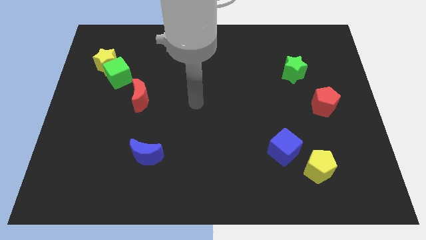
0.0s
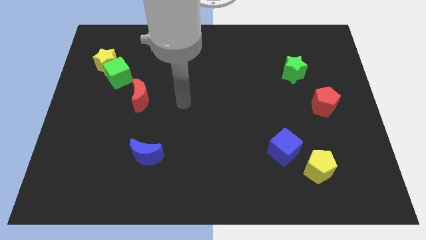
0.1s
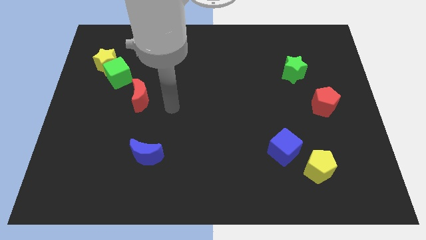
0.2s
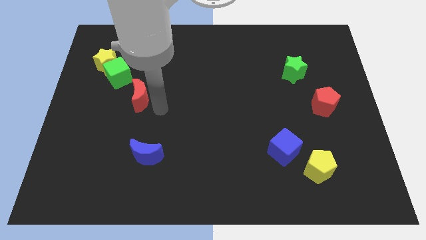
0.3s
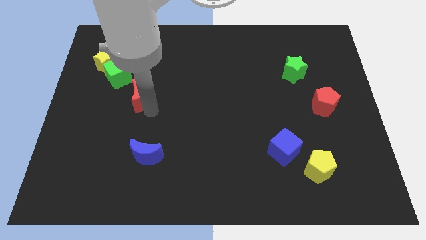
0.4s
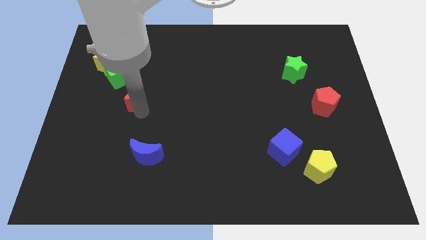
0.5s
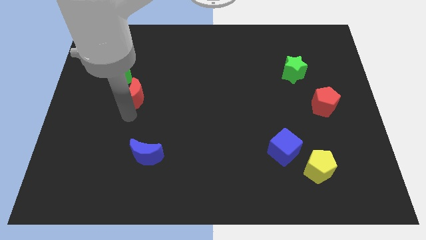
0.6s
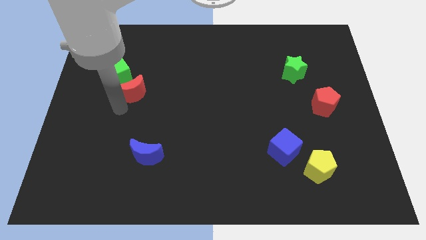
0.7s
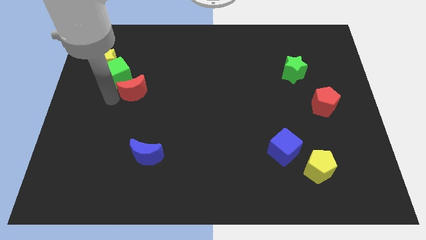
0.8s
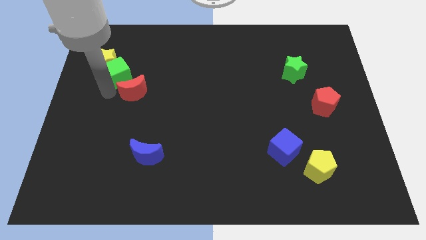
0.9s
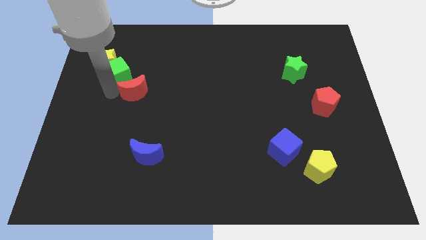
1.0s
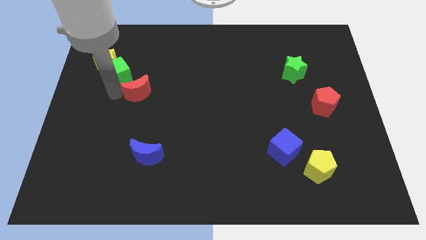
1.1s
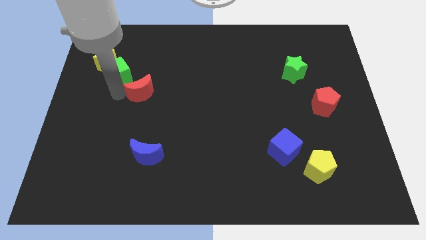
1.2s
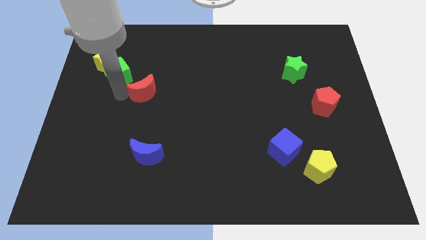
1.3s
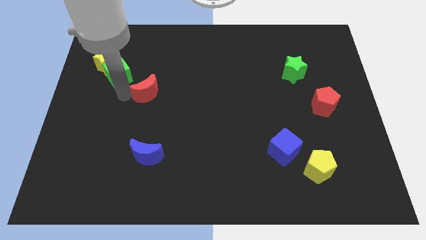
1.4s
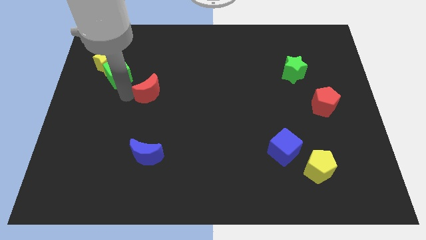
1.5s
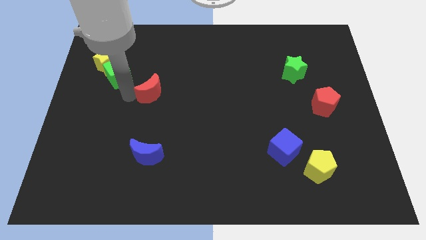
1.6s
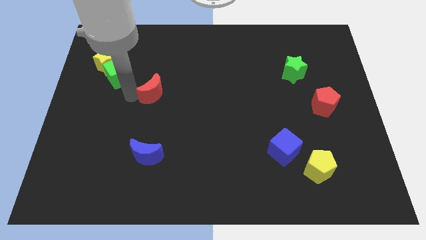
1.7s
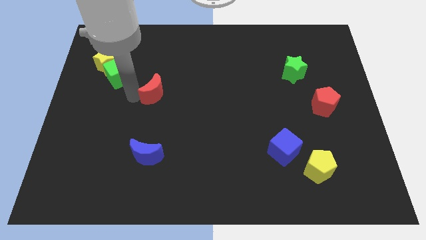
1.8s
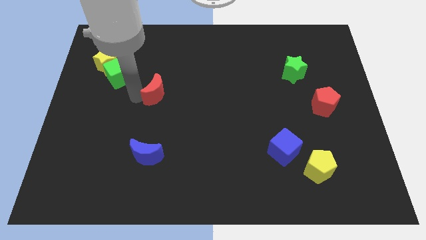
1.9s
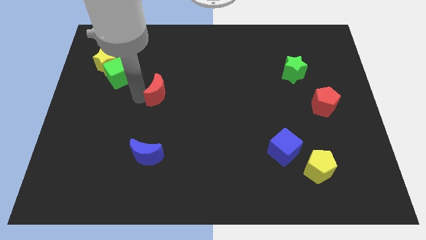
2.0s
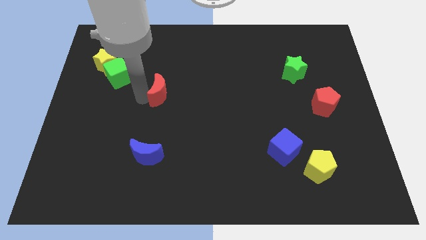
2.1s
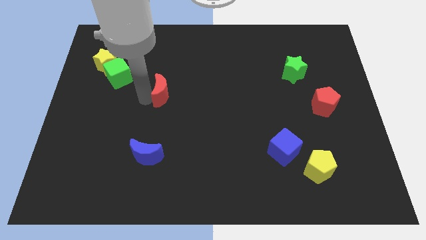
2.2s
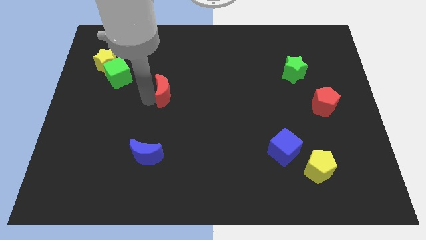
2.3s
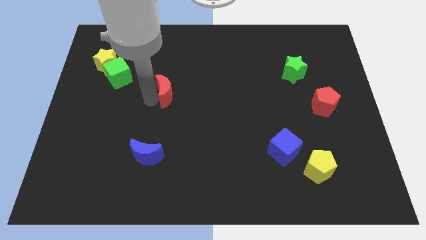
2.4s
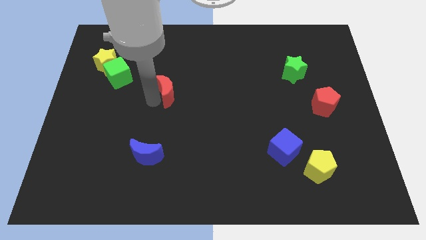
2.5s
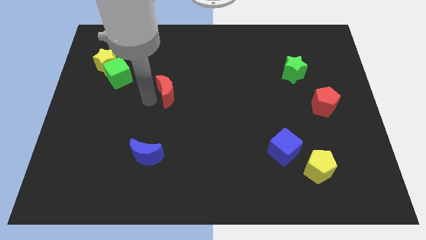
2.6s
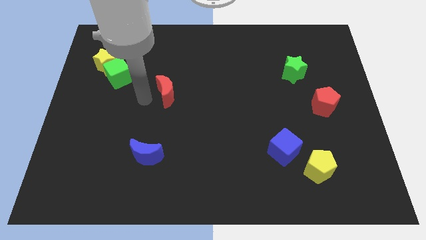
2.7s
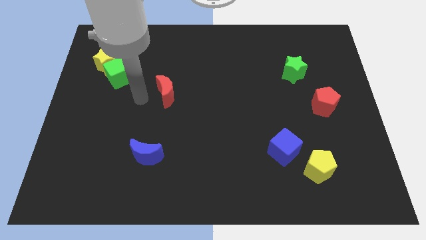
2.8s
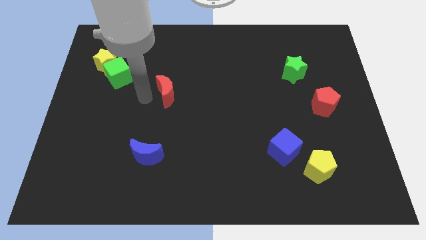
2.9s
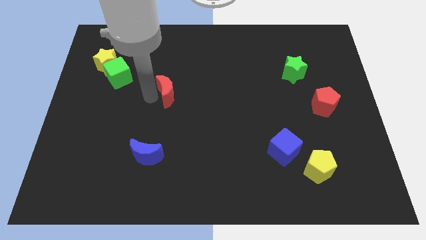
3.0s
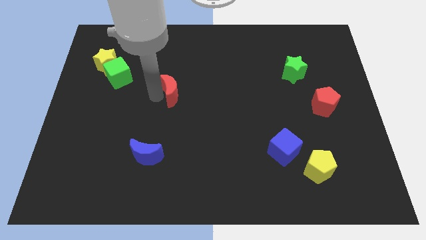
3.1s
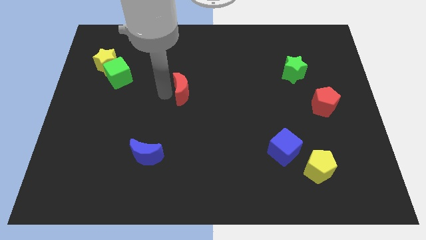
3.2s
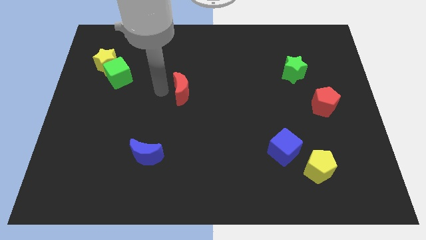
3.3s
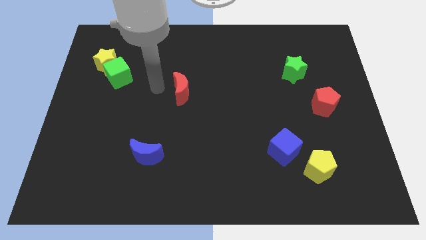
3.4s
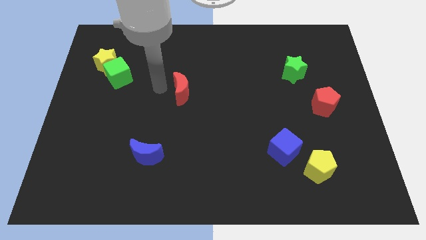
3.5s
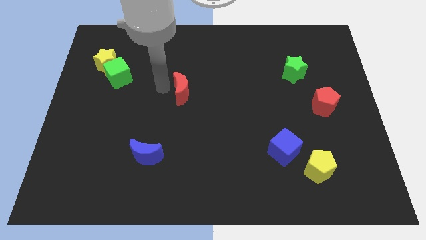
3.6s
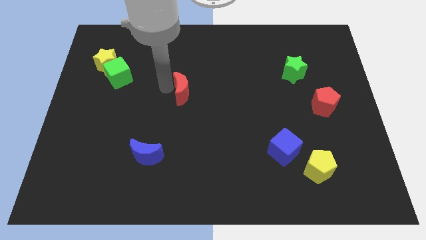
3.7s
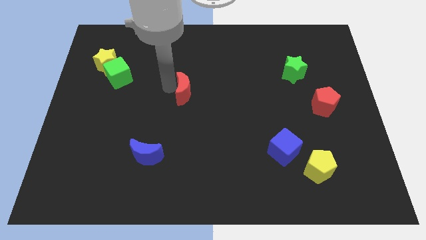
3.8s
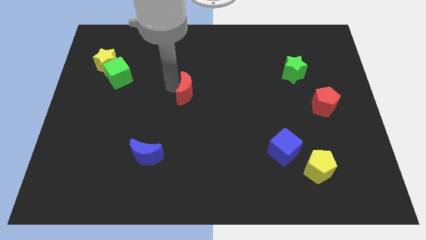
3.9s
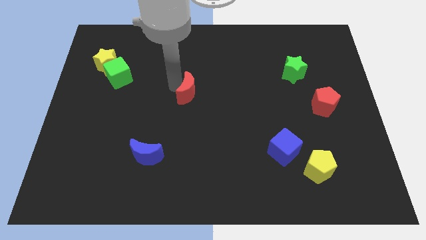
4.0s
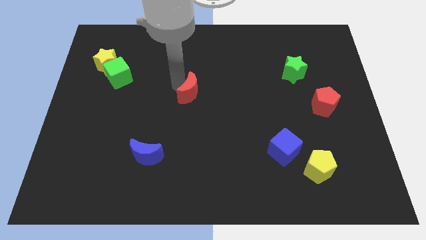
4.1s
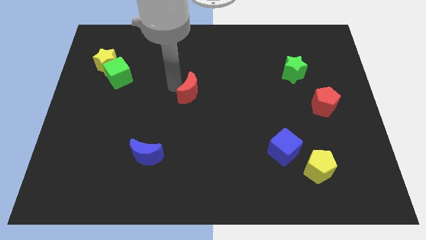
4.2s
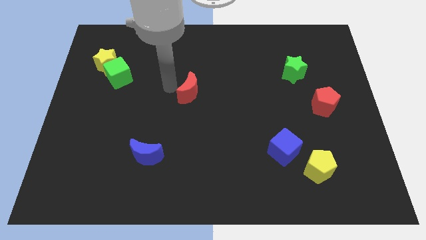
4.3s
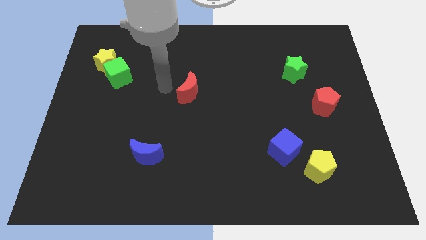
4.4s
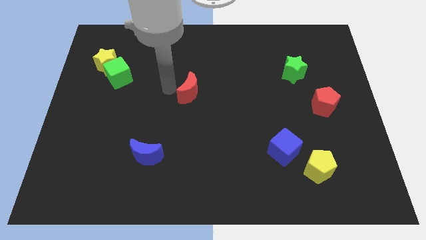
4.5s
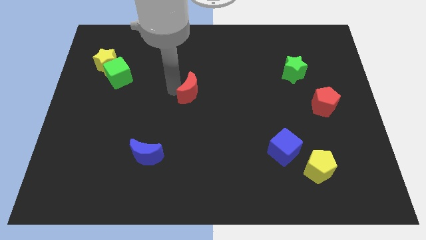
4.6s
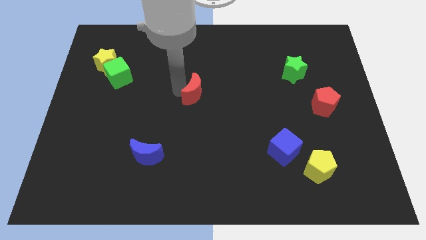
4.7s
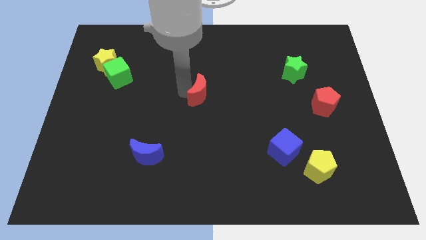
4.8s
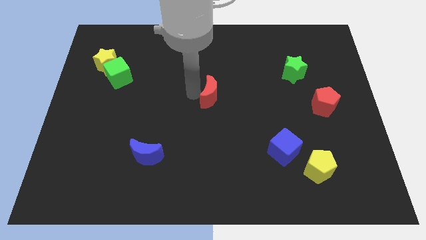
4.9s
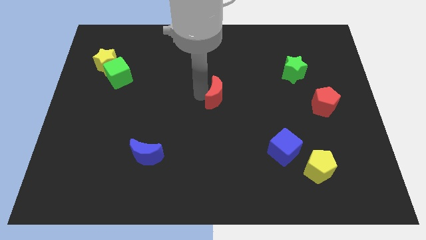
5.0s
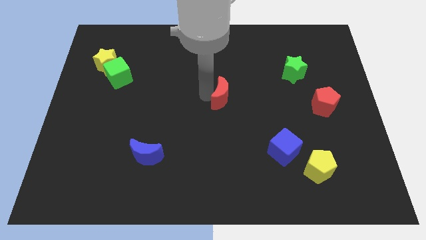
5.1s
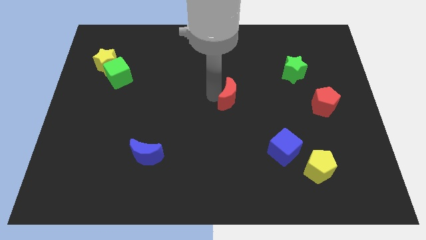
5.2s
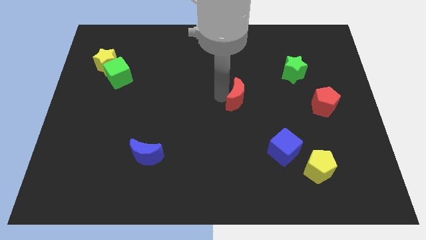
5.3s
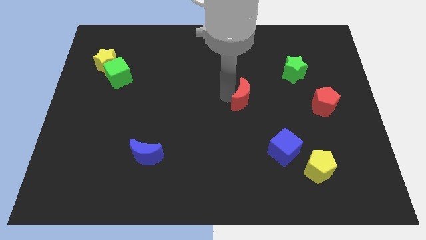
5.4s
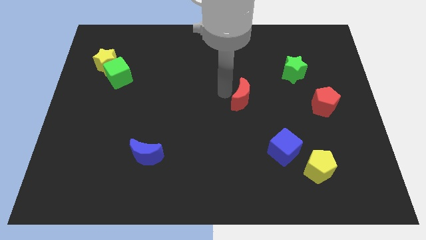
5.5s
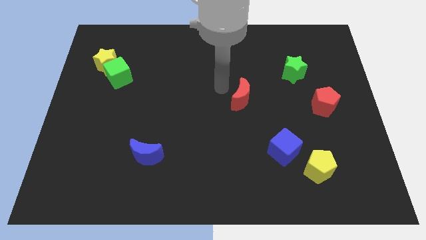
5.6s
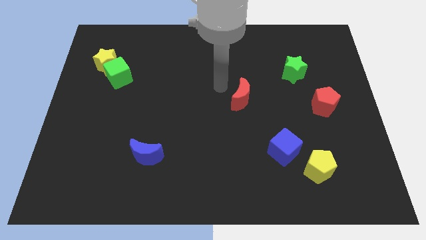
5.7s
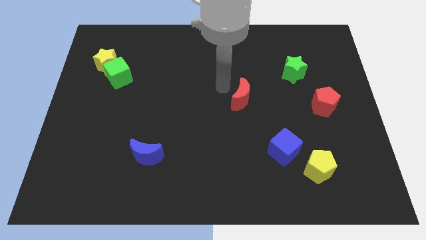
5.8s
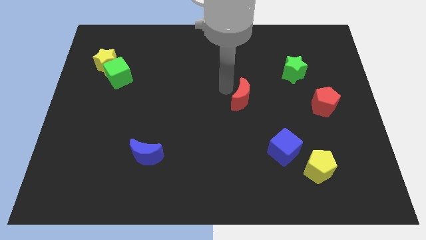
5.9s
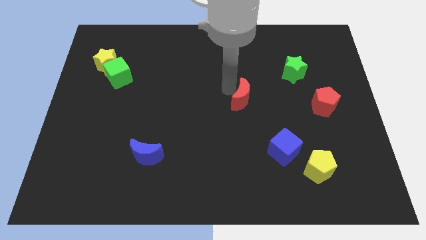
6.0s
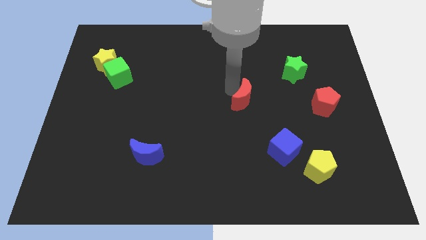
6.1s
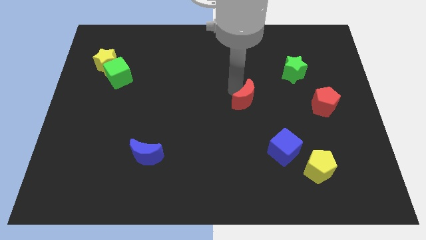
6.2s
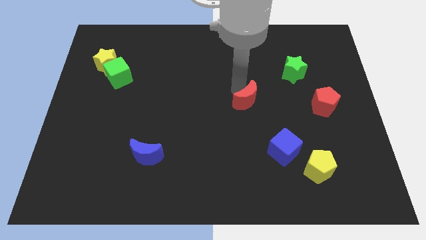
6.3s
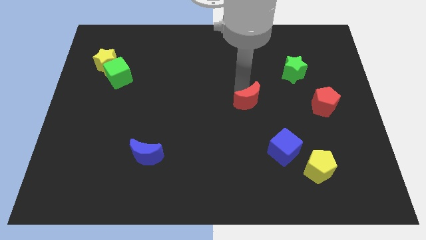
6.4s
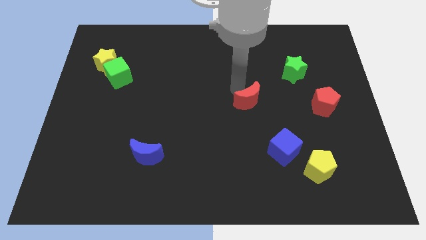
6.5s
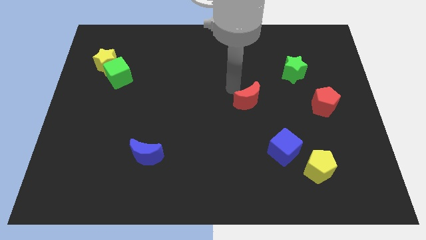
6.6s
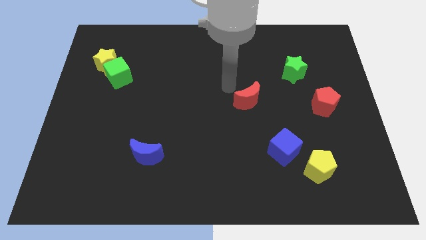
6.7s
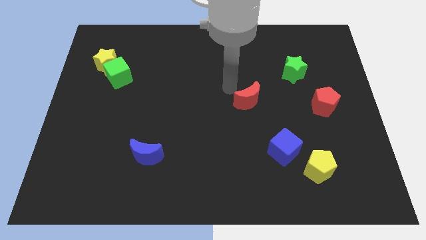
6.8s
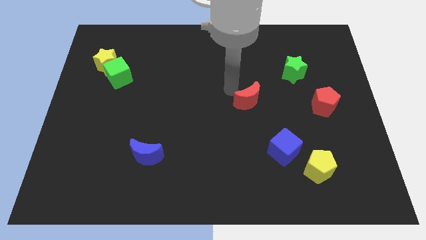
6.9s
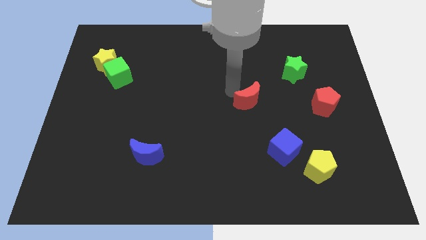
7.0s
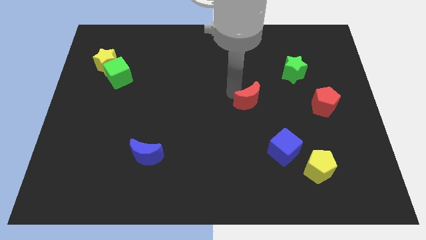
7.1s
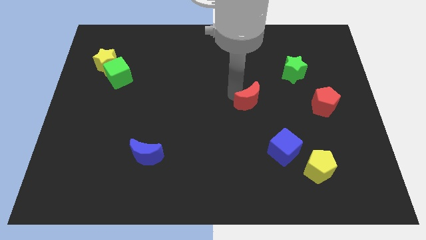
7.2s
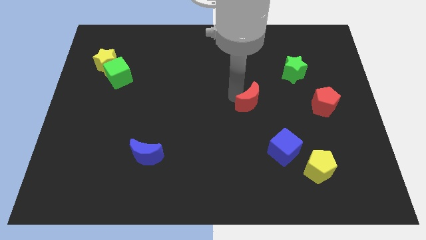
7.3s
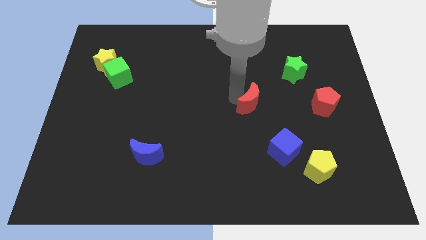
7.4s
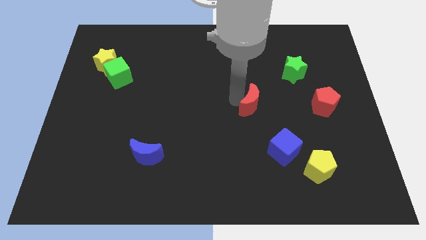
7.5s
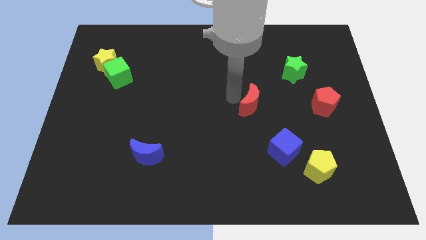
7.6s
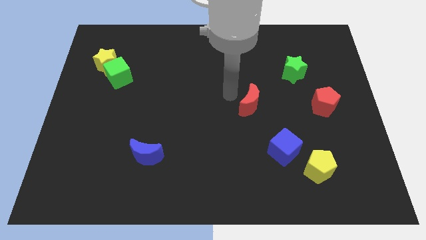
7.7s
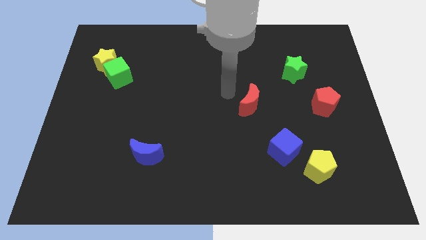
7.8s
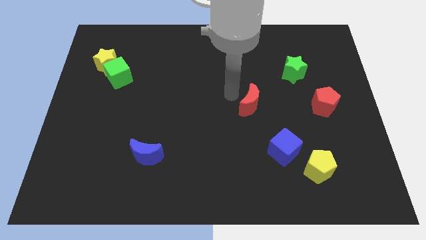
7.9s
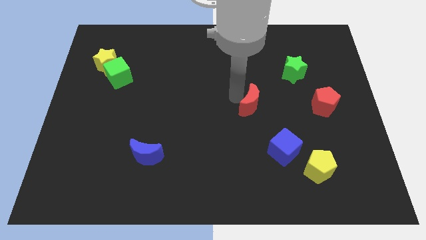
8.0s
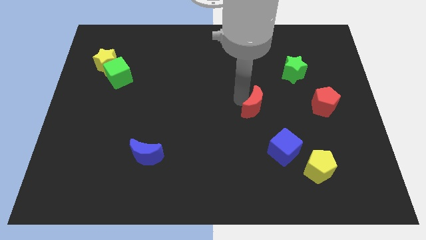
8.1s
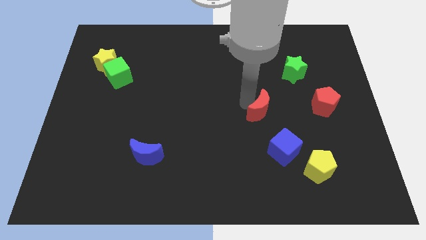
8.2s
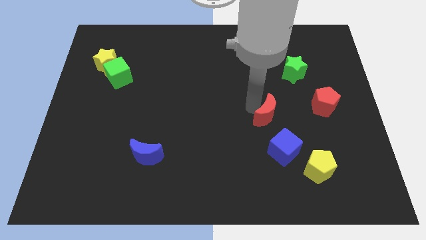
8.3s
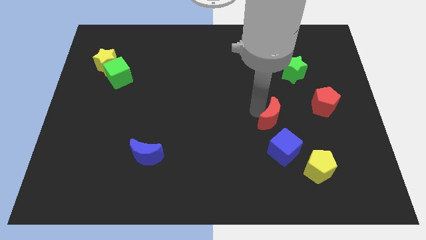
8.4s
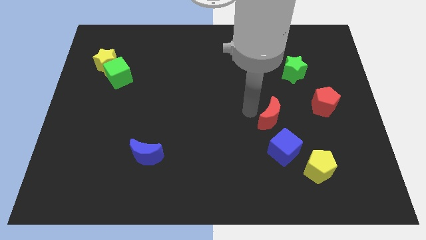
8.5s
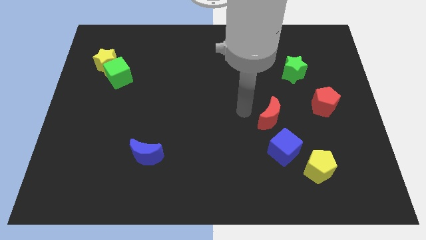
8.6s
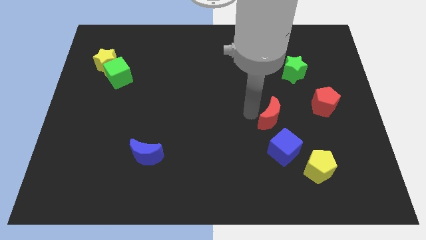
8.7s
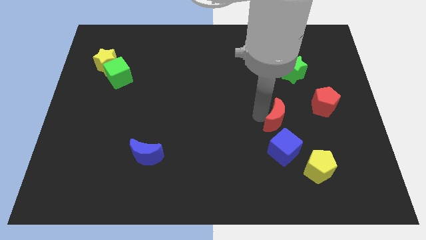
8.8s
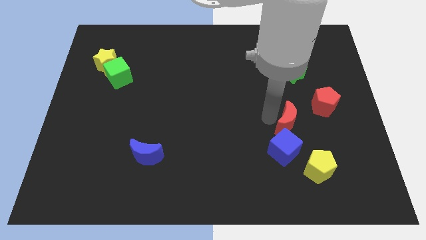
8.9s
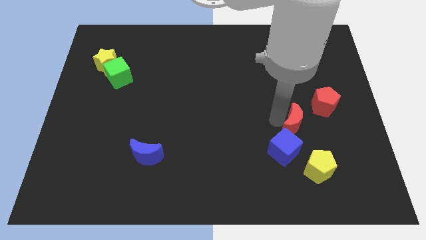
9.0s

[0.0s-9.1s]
push the red moon to the top side of the yellow pentagon
